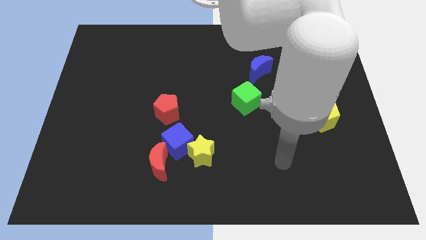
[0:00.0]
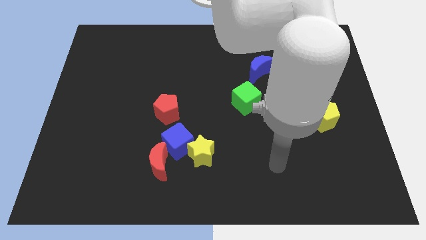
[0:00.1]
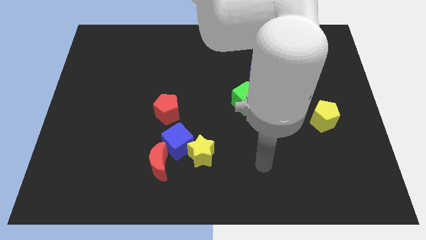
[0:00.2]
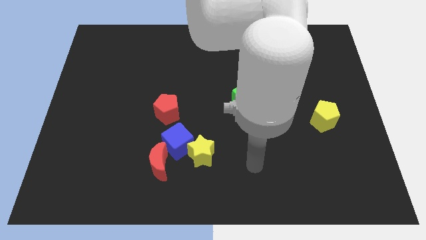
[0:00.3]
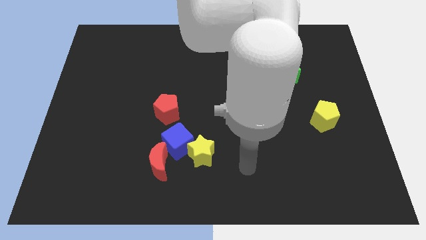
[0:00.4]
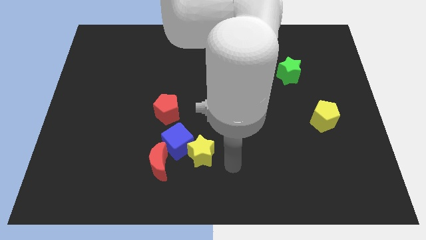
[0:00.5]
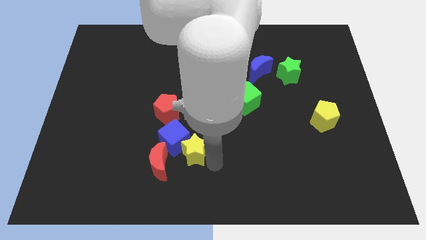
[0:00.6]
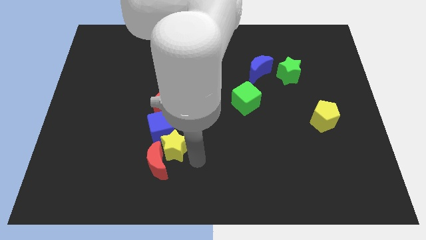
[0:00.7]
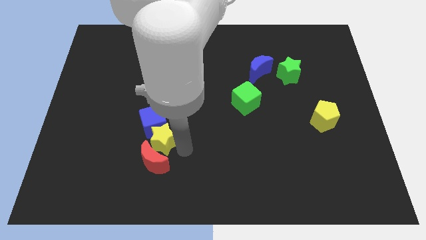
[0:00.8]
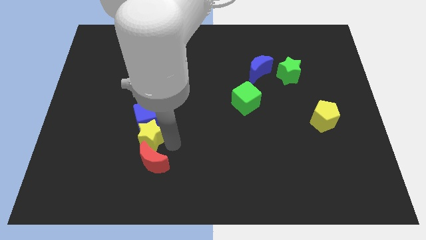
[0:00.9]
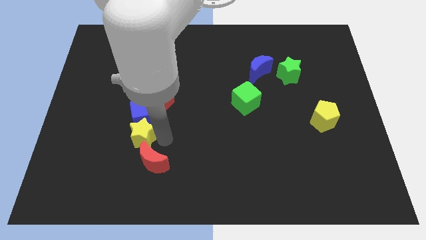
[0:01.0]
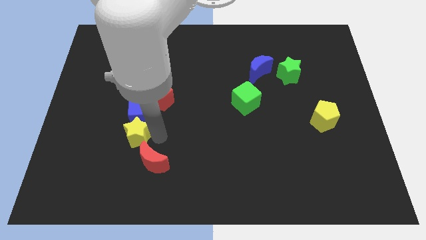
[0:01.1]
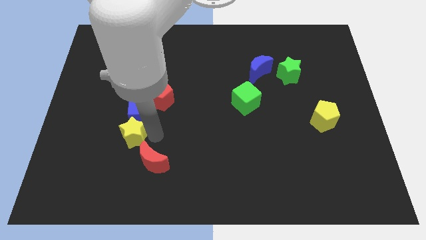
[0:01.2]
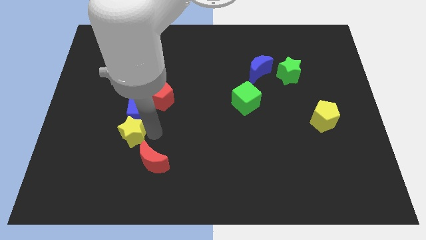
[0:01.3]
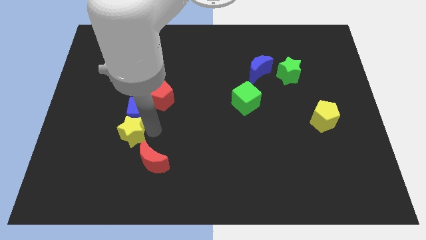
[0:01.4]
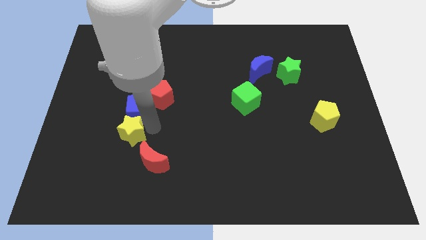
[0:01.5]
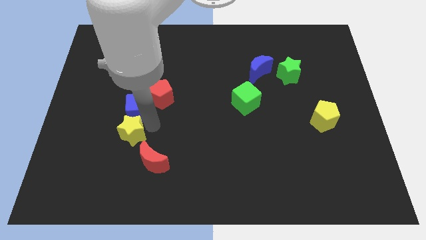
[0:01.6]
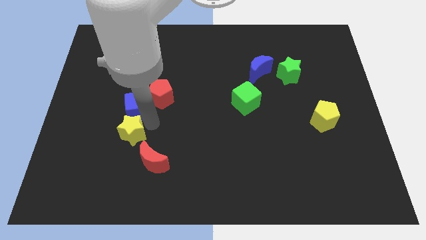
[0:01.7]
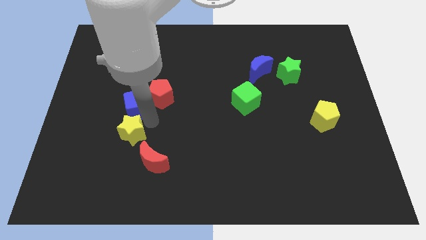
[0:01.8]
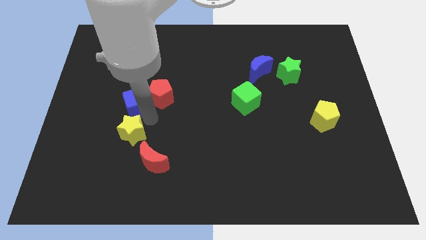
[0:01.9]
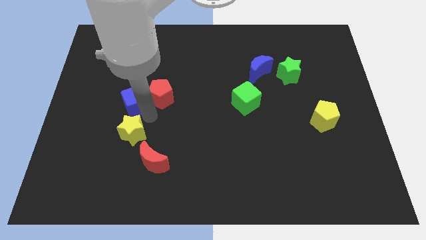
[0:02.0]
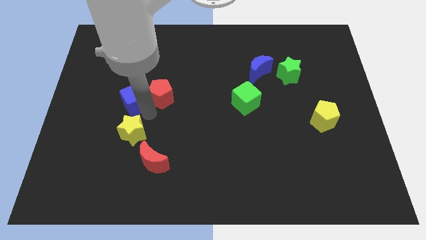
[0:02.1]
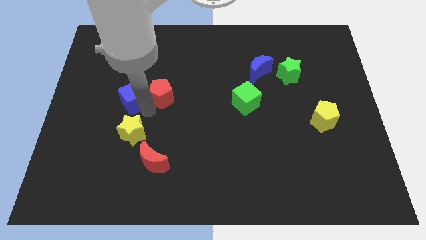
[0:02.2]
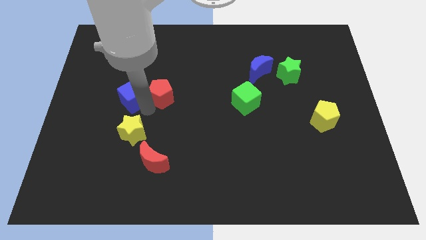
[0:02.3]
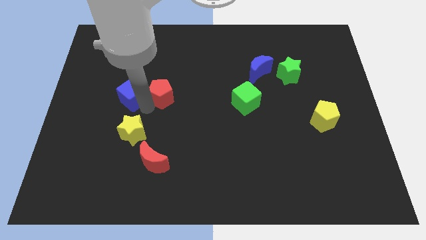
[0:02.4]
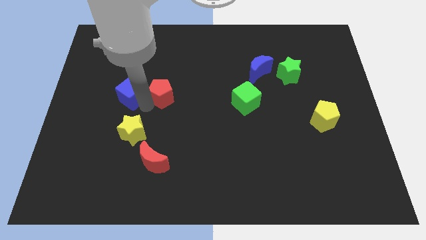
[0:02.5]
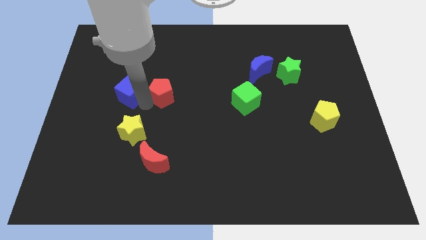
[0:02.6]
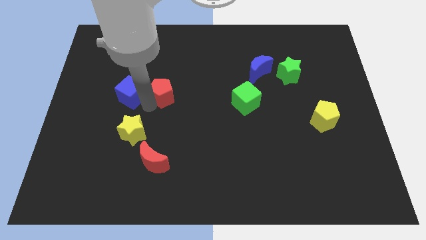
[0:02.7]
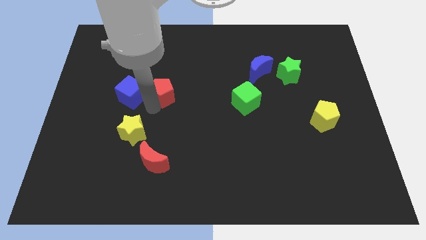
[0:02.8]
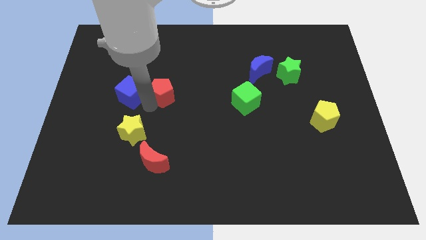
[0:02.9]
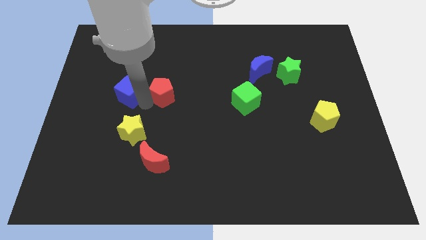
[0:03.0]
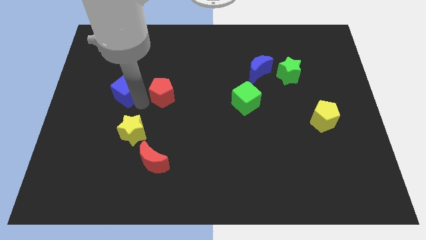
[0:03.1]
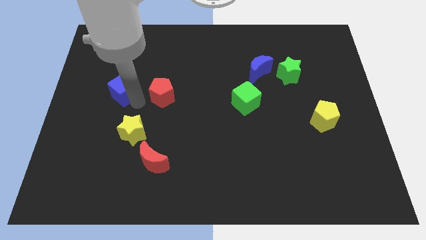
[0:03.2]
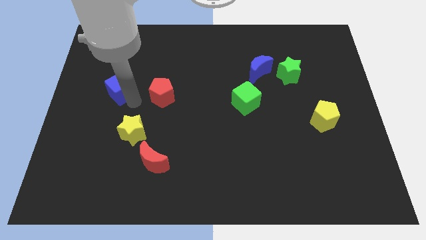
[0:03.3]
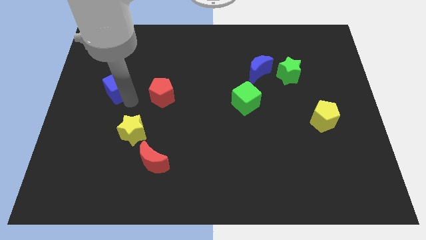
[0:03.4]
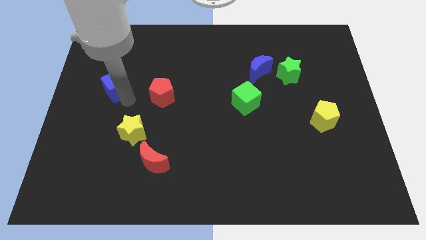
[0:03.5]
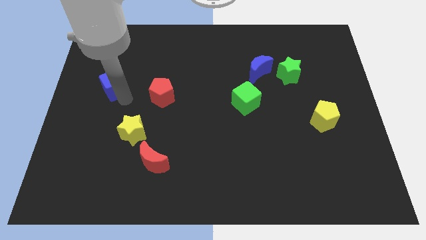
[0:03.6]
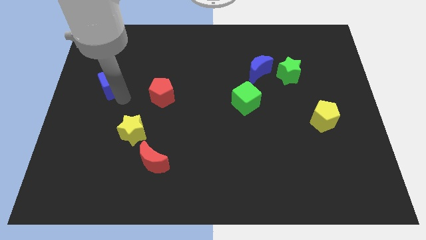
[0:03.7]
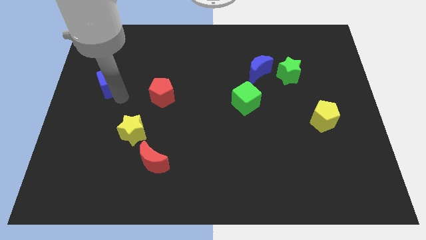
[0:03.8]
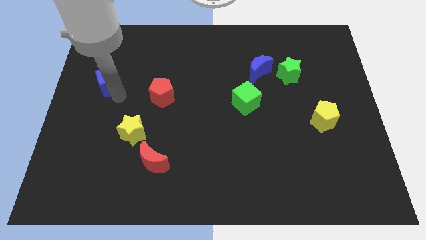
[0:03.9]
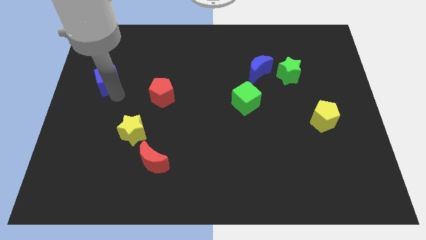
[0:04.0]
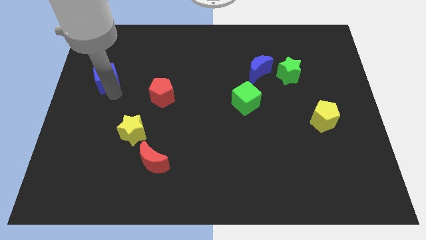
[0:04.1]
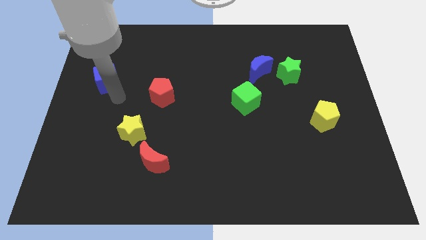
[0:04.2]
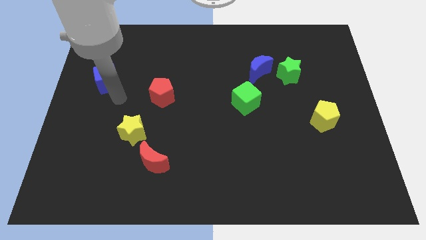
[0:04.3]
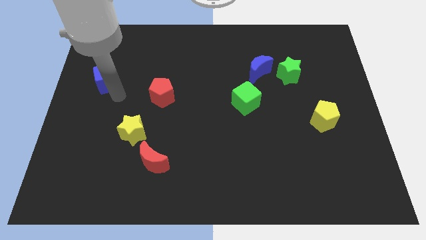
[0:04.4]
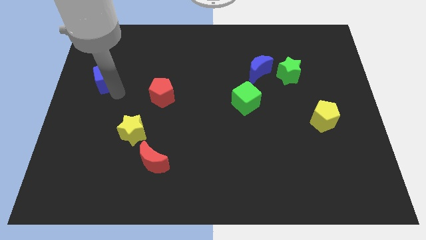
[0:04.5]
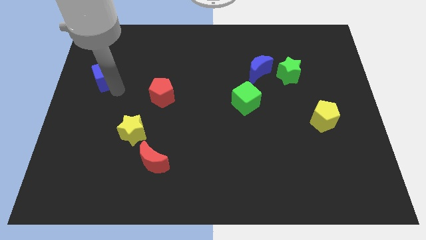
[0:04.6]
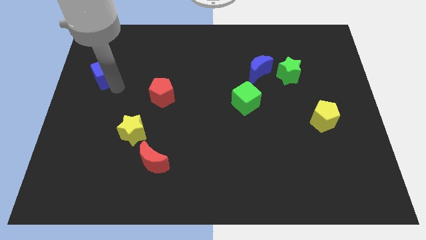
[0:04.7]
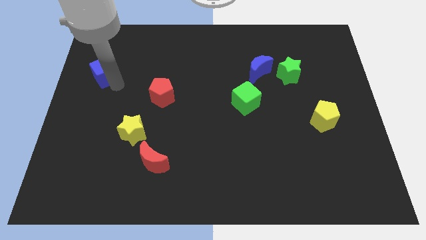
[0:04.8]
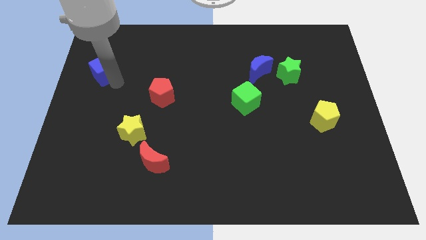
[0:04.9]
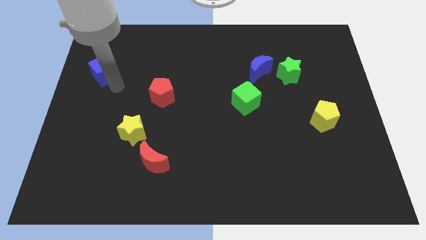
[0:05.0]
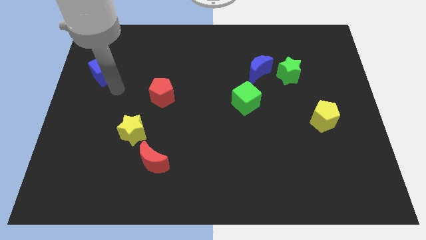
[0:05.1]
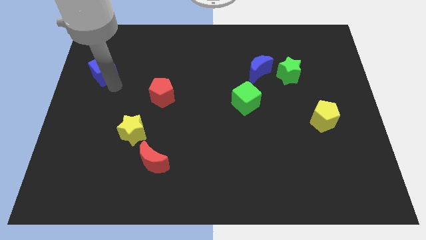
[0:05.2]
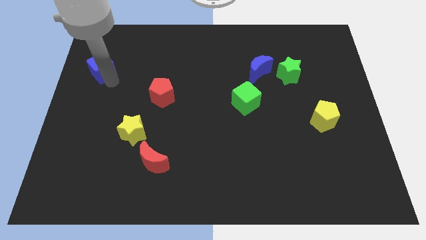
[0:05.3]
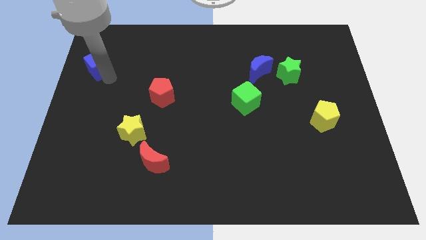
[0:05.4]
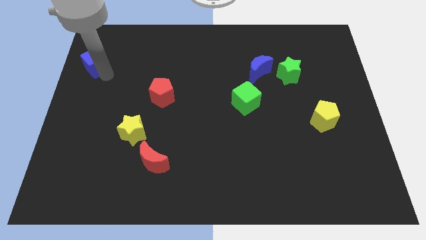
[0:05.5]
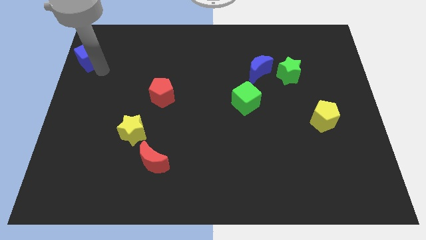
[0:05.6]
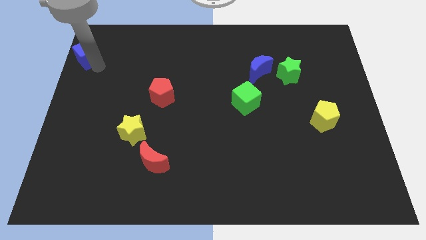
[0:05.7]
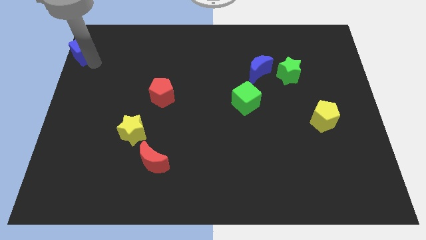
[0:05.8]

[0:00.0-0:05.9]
put the blue cube to the top left corner

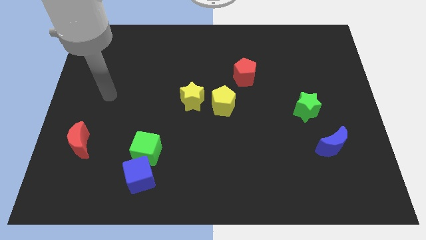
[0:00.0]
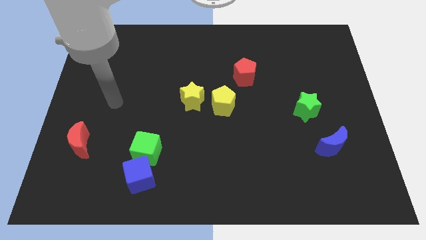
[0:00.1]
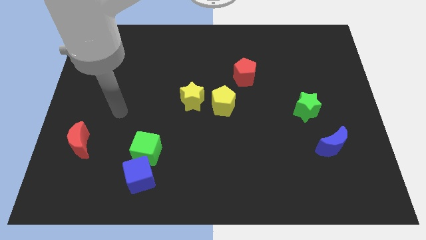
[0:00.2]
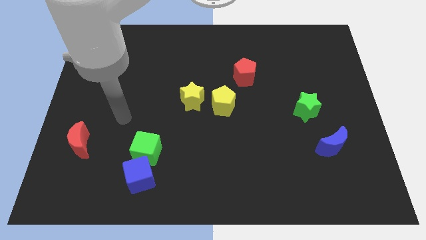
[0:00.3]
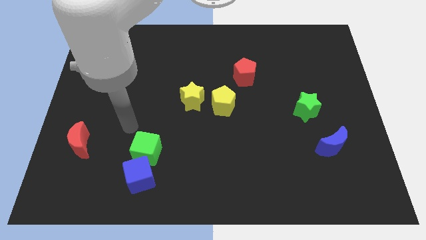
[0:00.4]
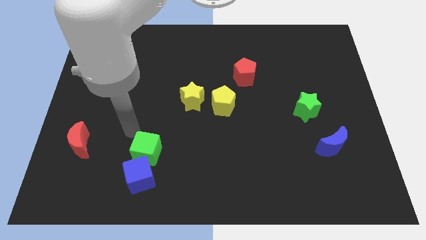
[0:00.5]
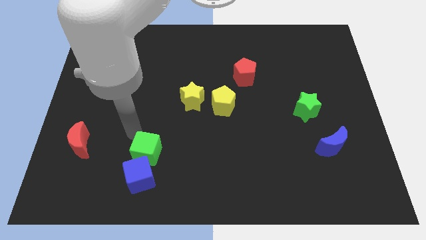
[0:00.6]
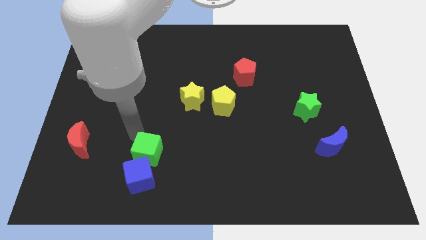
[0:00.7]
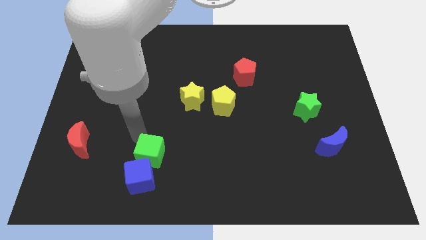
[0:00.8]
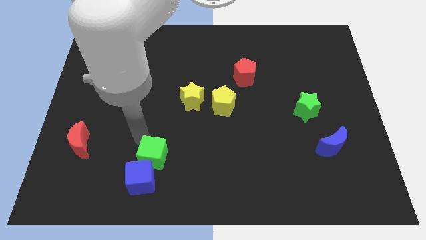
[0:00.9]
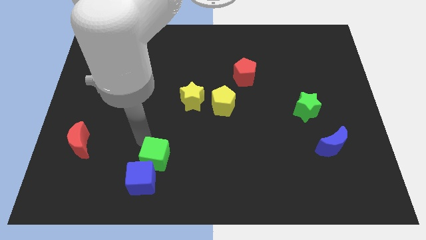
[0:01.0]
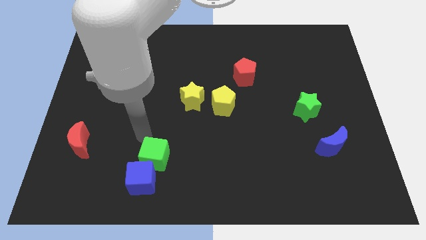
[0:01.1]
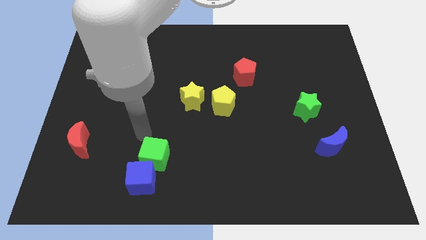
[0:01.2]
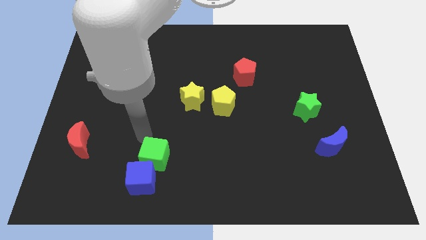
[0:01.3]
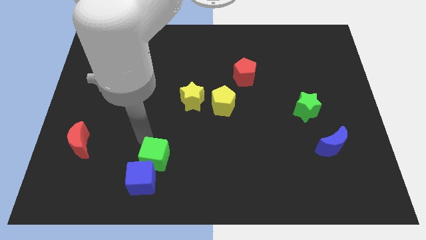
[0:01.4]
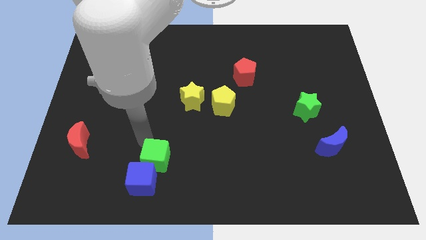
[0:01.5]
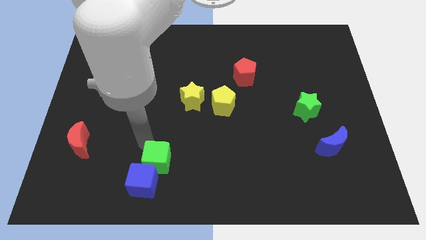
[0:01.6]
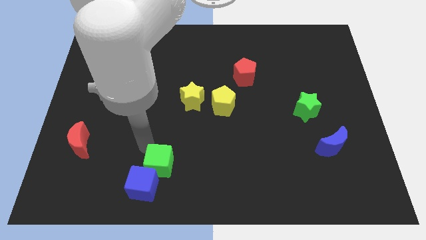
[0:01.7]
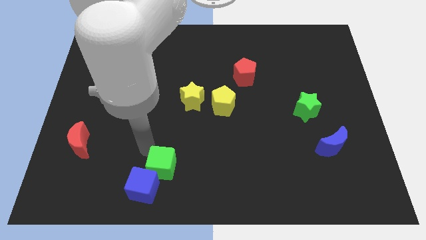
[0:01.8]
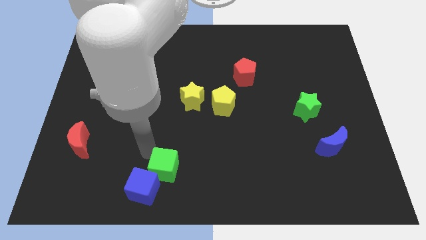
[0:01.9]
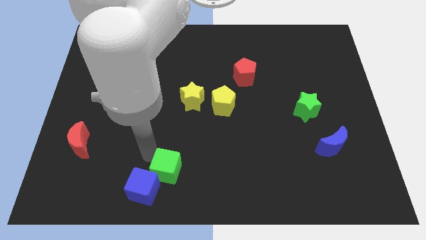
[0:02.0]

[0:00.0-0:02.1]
slide the green cube to the bottom
